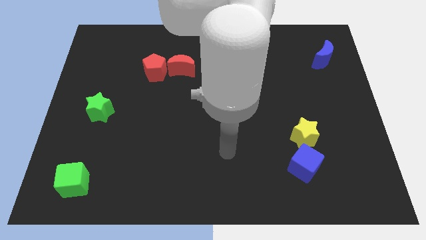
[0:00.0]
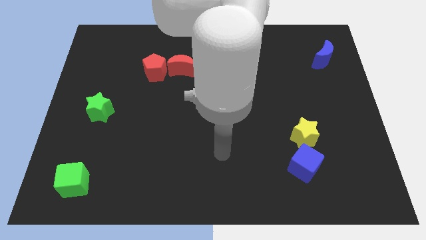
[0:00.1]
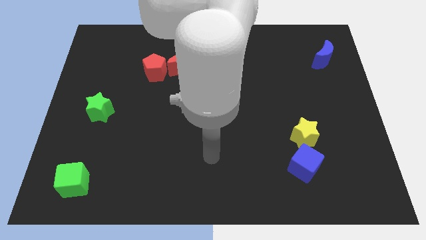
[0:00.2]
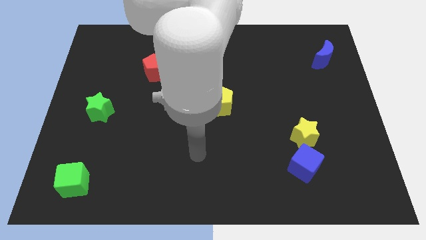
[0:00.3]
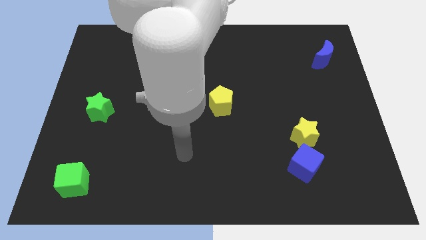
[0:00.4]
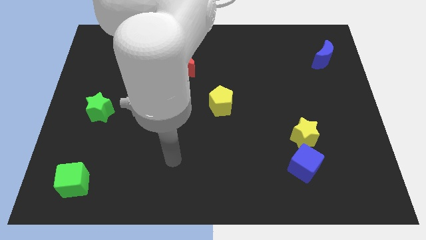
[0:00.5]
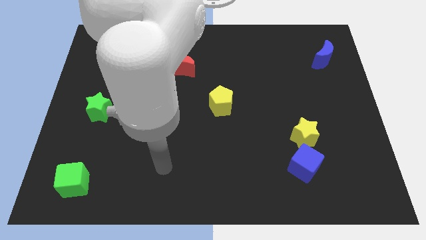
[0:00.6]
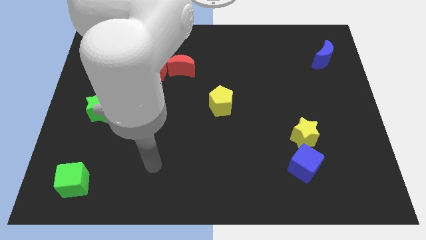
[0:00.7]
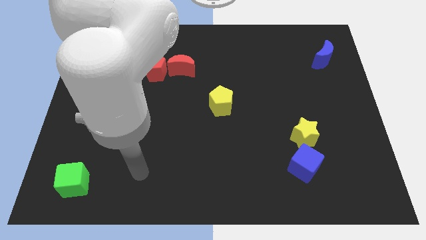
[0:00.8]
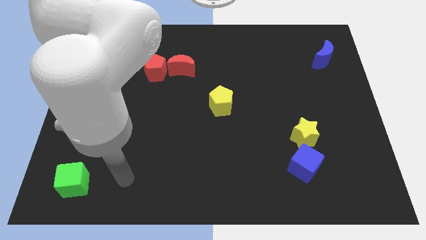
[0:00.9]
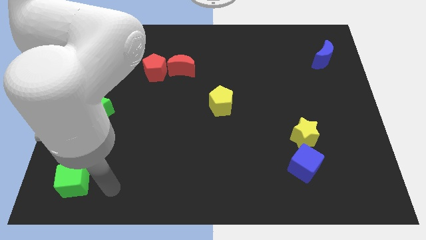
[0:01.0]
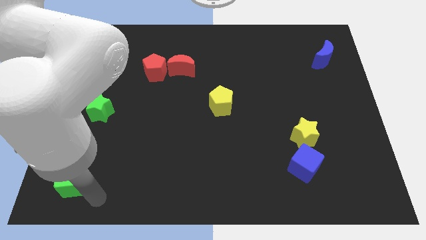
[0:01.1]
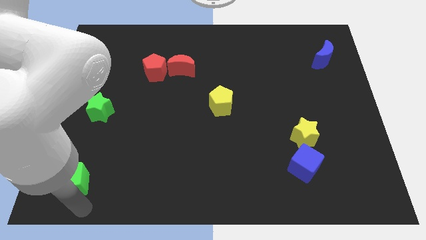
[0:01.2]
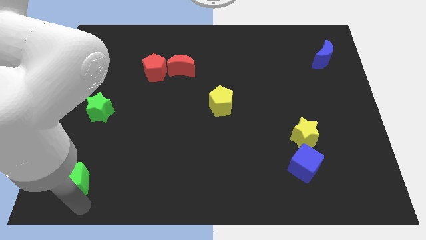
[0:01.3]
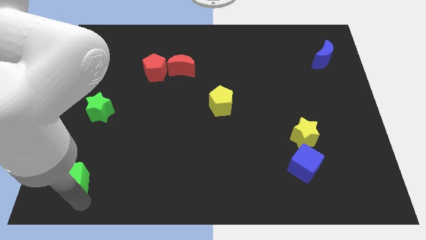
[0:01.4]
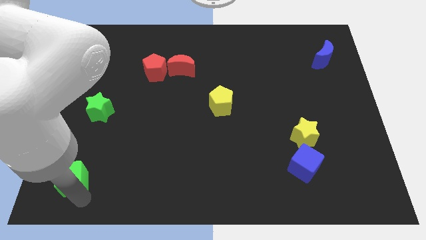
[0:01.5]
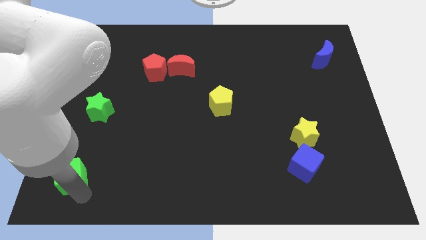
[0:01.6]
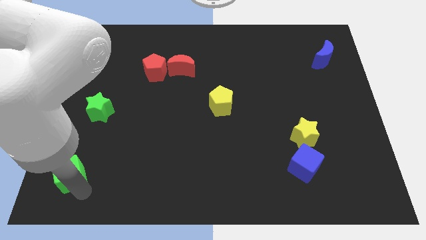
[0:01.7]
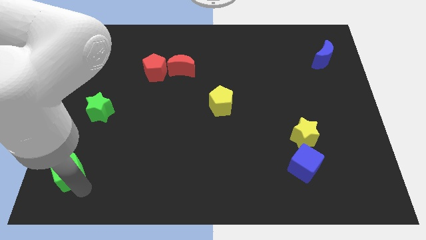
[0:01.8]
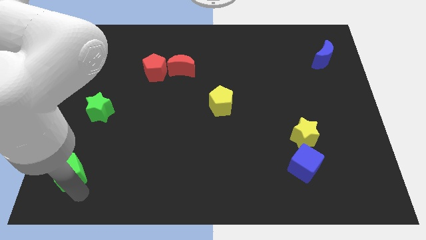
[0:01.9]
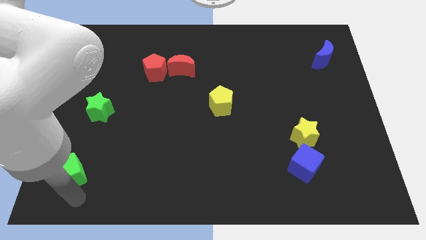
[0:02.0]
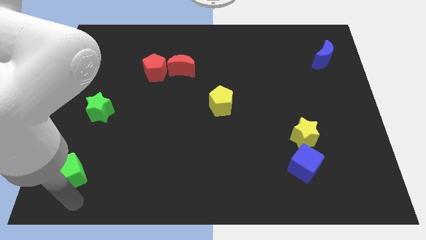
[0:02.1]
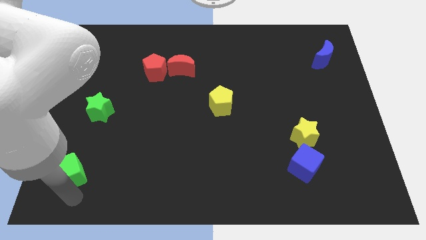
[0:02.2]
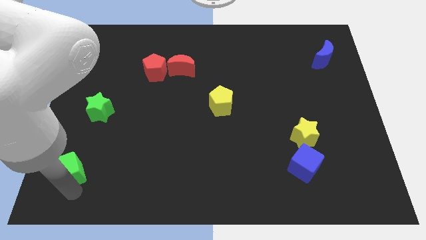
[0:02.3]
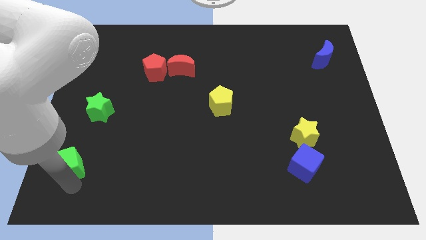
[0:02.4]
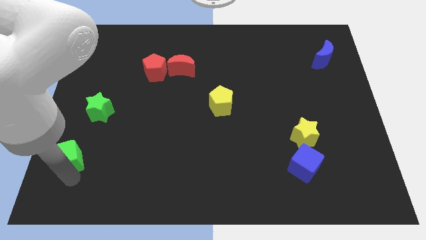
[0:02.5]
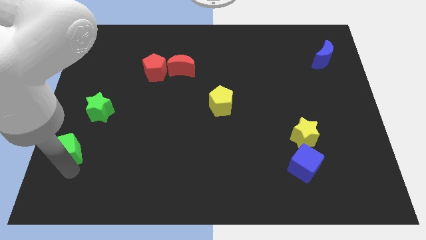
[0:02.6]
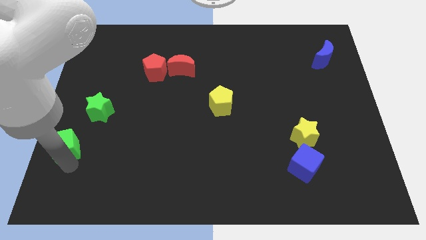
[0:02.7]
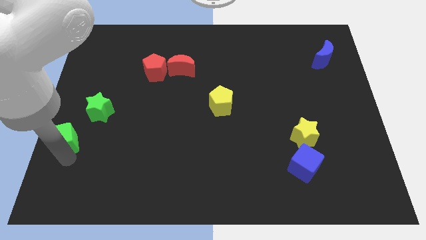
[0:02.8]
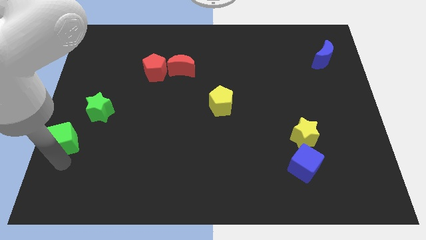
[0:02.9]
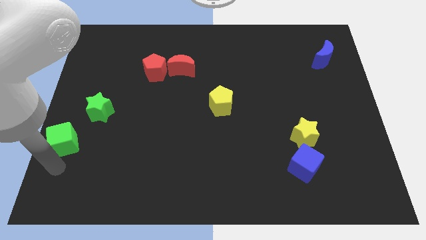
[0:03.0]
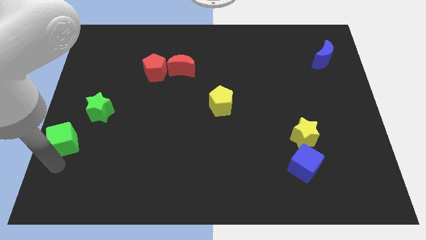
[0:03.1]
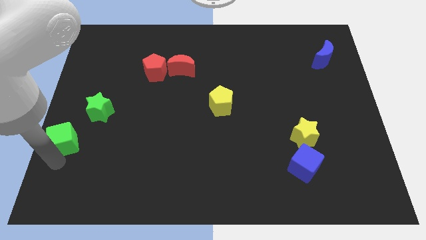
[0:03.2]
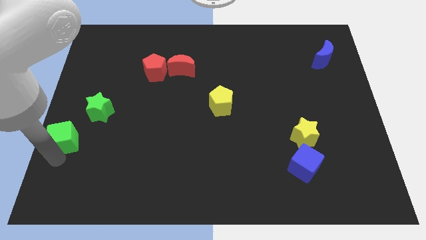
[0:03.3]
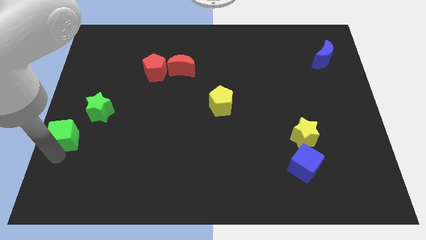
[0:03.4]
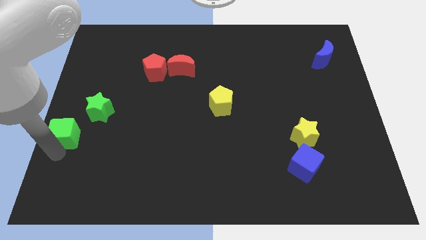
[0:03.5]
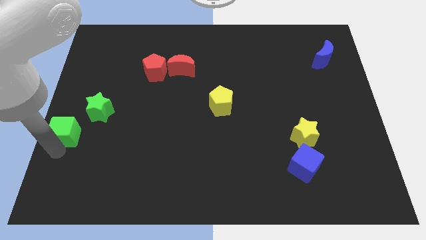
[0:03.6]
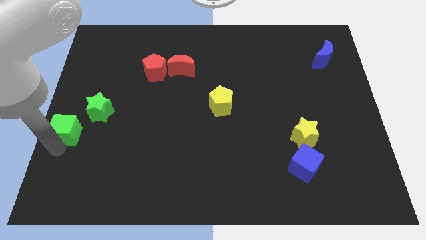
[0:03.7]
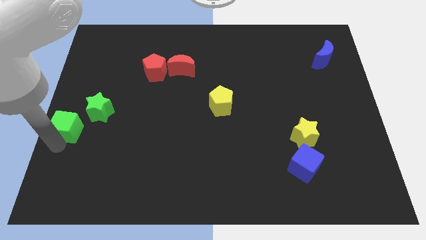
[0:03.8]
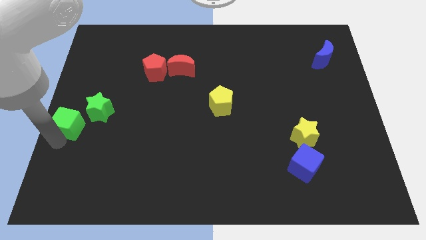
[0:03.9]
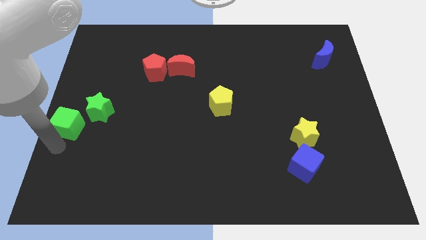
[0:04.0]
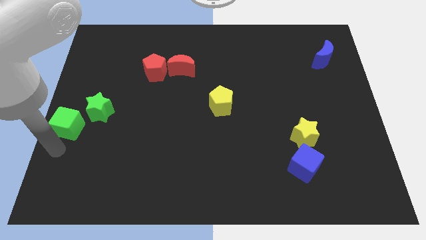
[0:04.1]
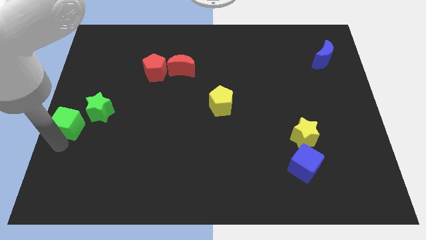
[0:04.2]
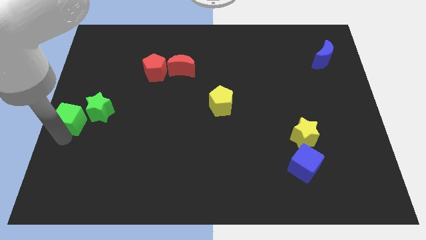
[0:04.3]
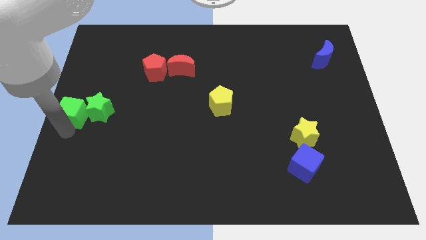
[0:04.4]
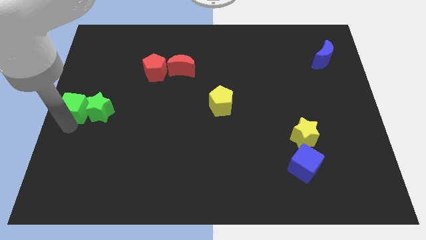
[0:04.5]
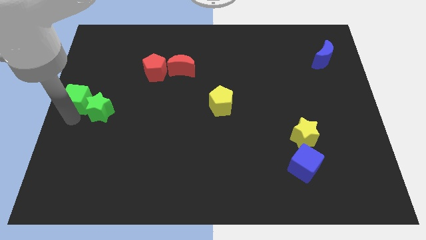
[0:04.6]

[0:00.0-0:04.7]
move the green cube up

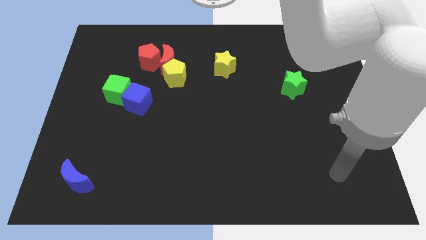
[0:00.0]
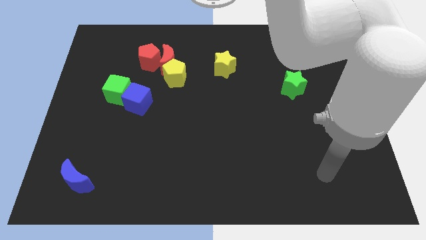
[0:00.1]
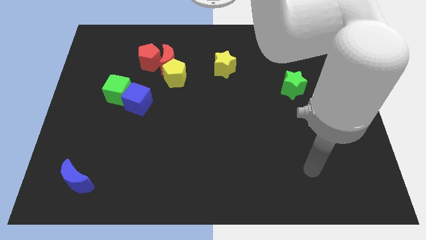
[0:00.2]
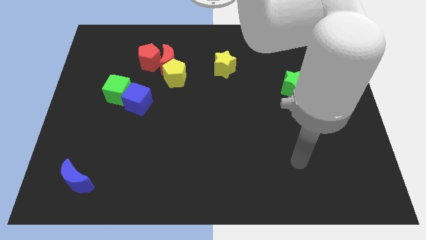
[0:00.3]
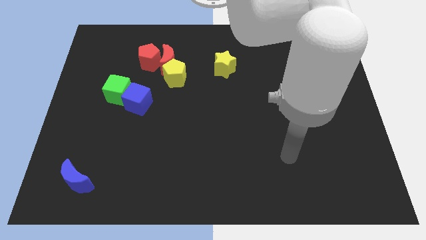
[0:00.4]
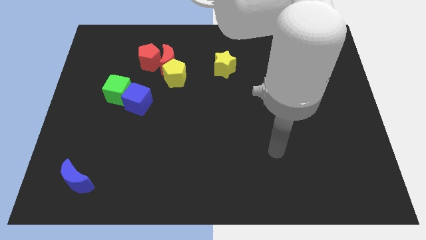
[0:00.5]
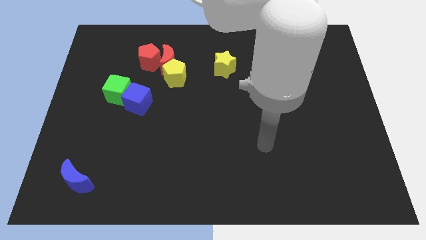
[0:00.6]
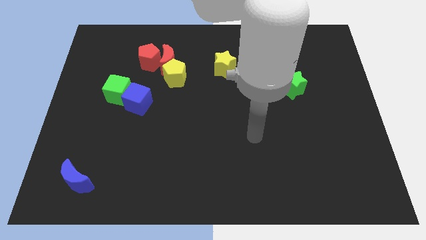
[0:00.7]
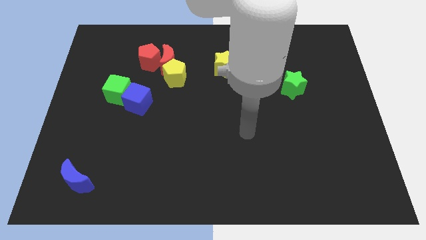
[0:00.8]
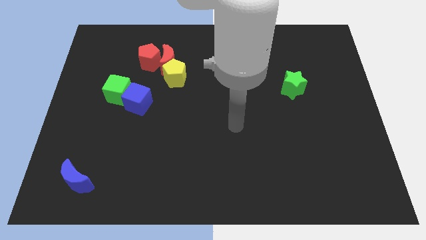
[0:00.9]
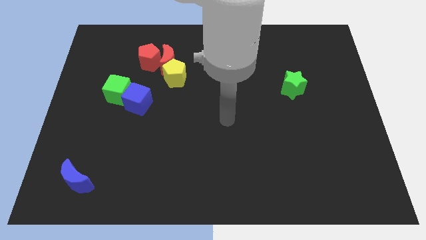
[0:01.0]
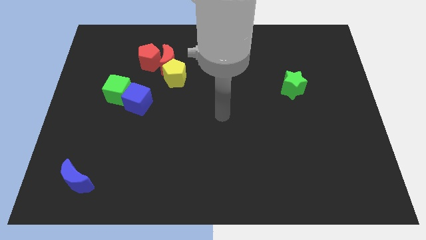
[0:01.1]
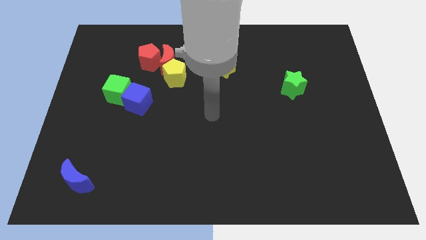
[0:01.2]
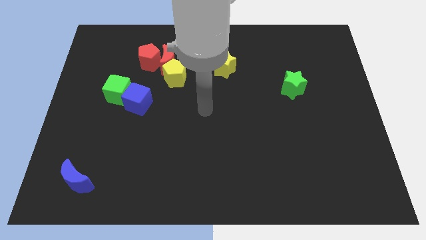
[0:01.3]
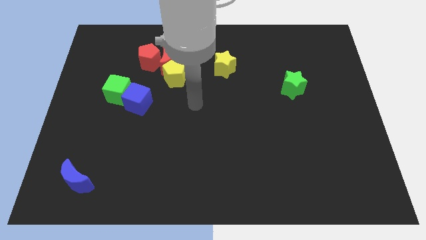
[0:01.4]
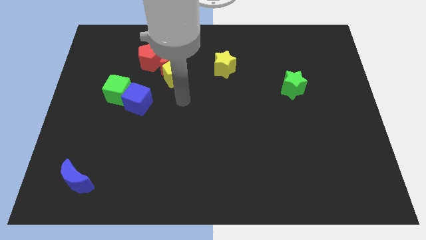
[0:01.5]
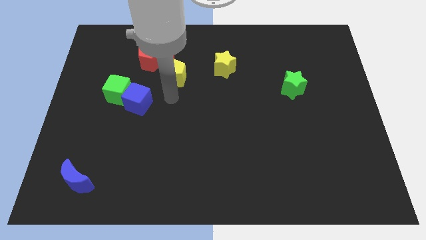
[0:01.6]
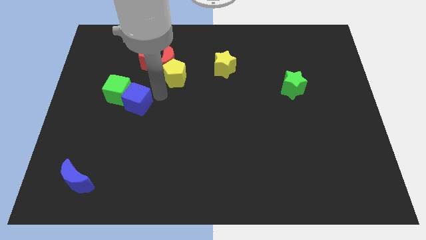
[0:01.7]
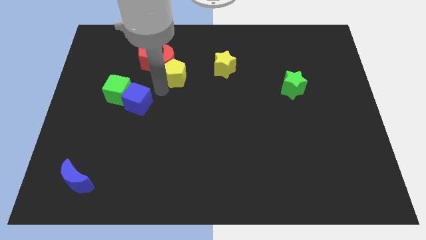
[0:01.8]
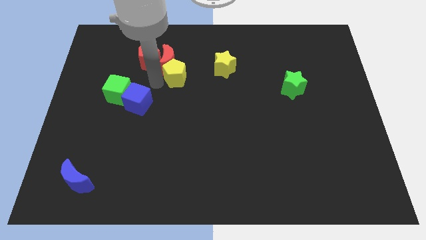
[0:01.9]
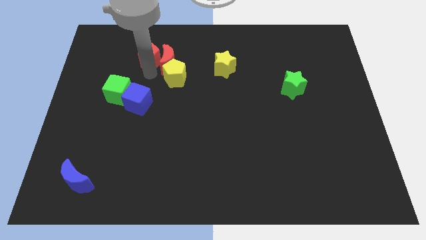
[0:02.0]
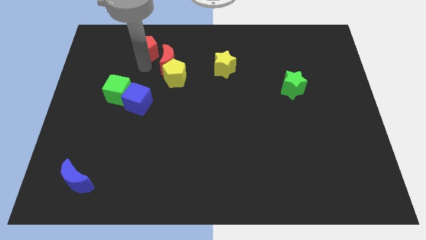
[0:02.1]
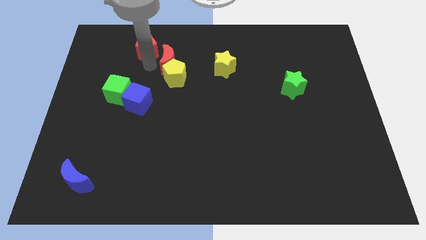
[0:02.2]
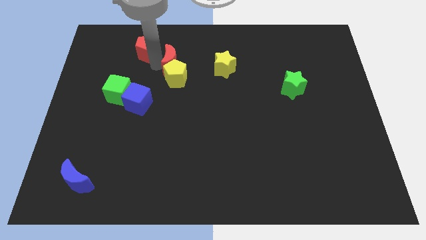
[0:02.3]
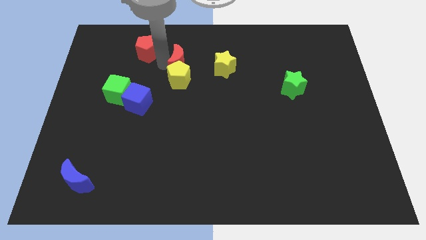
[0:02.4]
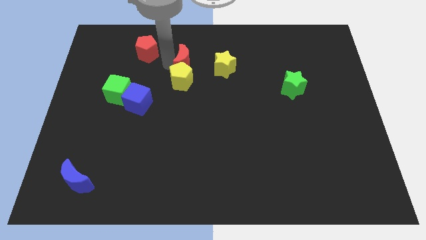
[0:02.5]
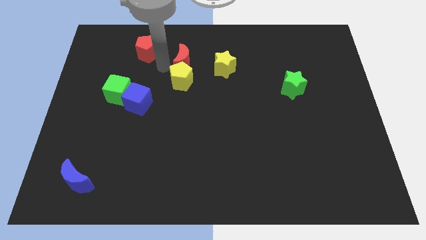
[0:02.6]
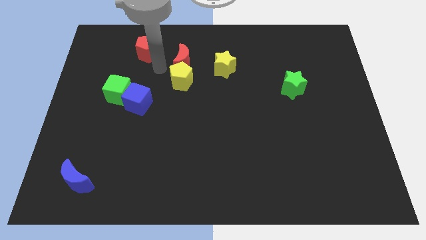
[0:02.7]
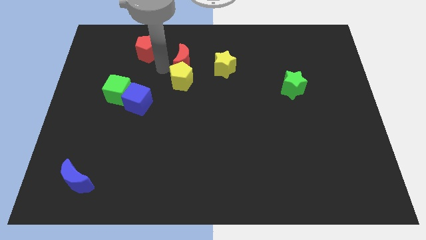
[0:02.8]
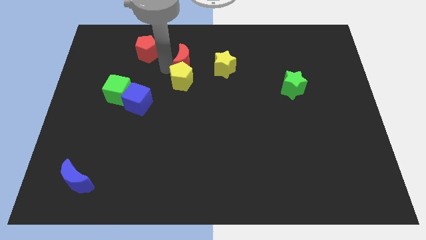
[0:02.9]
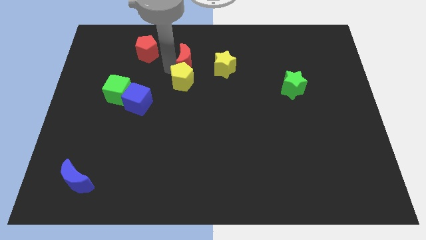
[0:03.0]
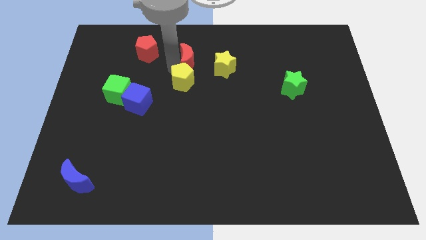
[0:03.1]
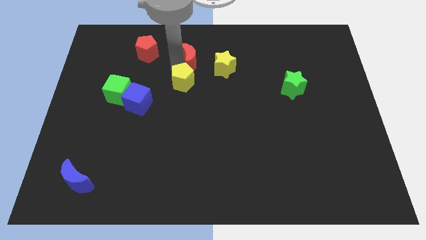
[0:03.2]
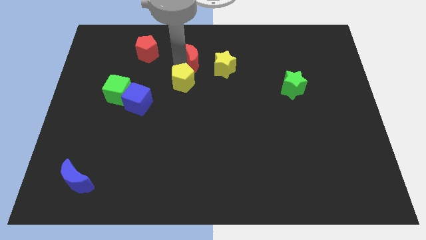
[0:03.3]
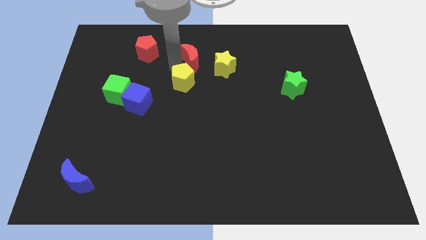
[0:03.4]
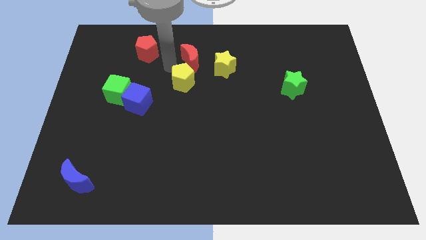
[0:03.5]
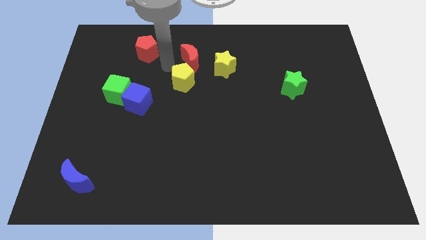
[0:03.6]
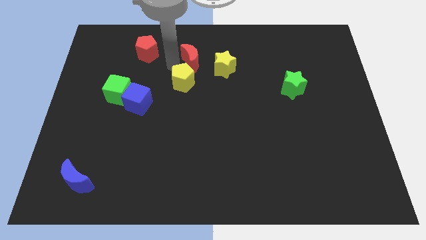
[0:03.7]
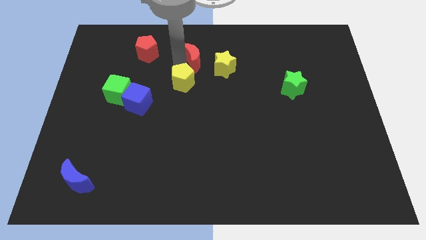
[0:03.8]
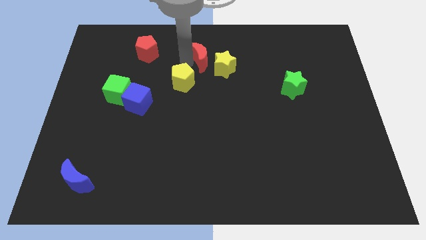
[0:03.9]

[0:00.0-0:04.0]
slightly slide the red moon right
